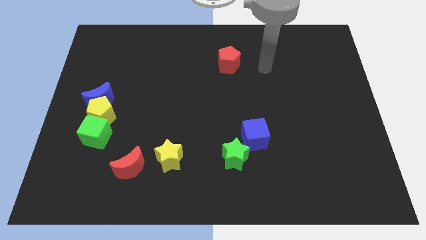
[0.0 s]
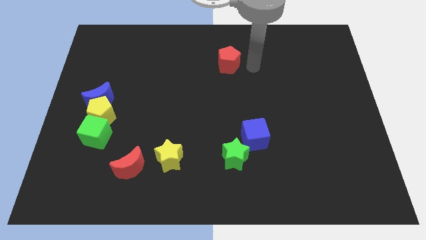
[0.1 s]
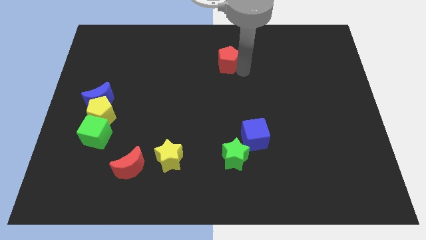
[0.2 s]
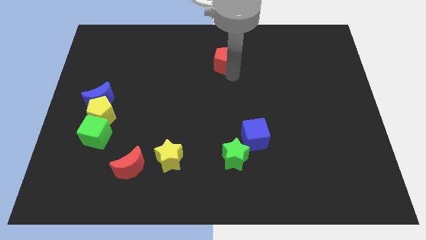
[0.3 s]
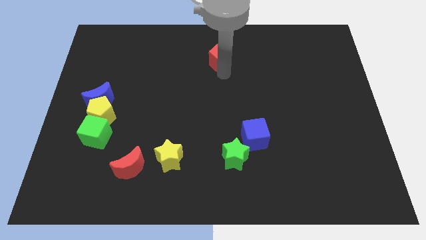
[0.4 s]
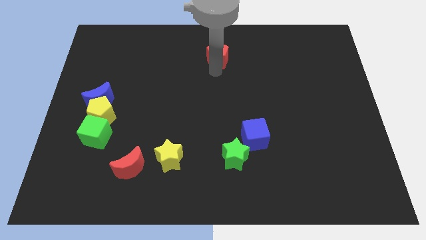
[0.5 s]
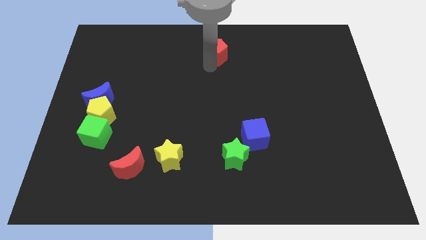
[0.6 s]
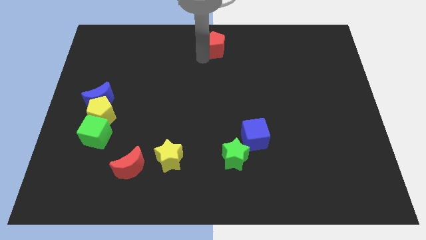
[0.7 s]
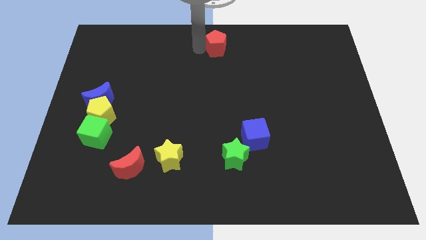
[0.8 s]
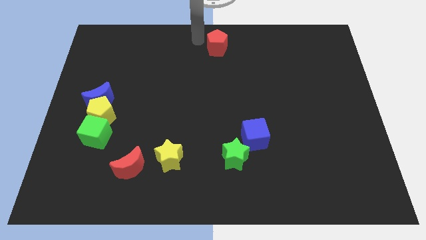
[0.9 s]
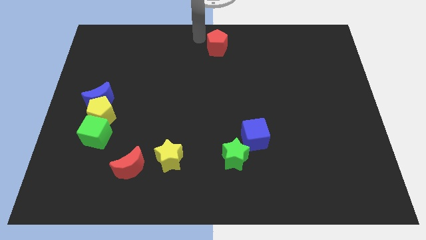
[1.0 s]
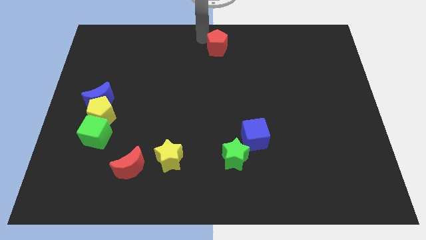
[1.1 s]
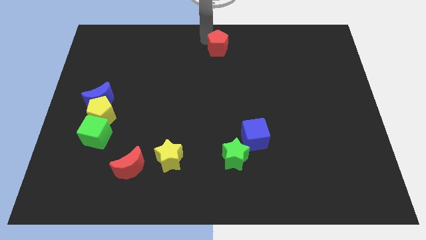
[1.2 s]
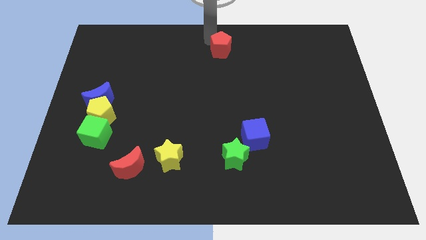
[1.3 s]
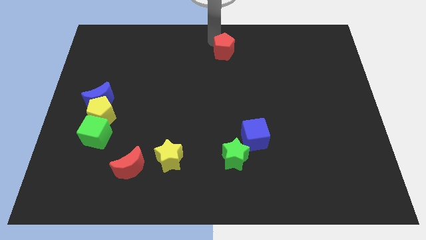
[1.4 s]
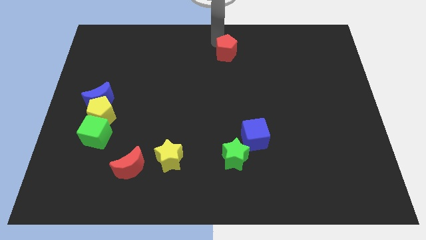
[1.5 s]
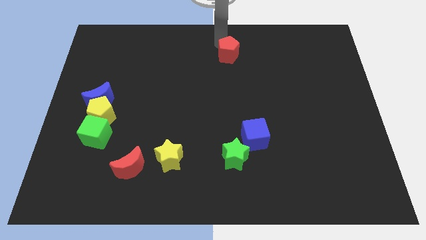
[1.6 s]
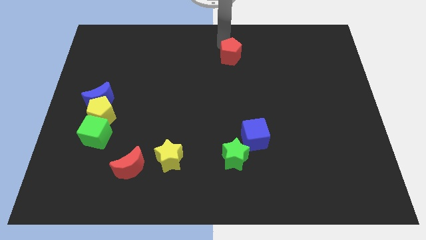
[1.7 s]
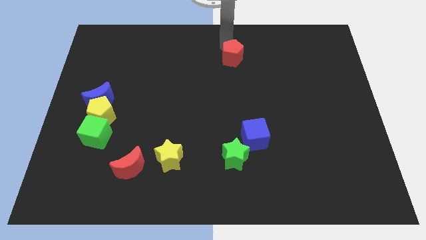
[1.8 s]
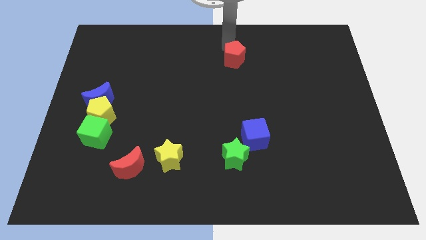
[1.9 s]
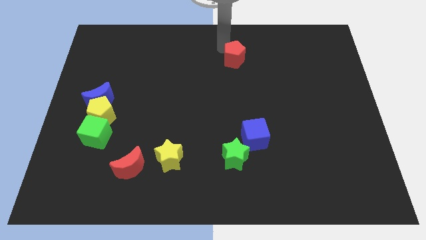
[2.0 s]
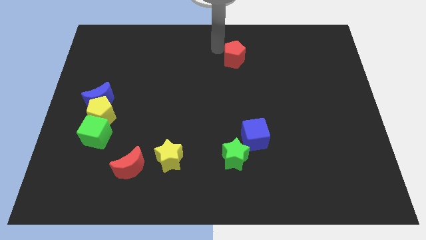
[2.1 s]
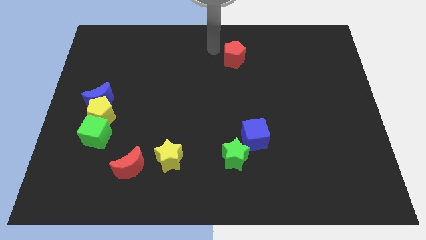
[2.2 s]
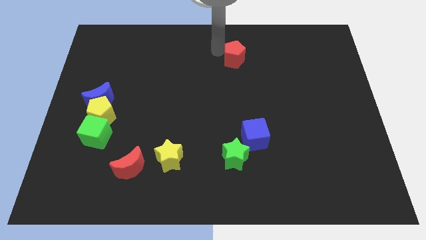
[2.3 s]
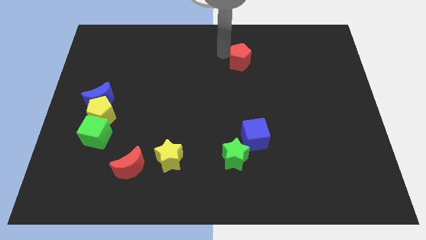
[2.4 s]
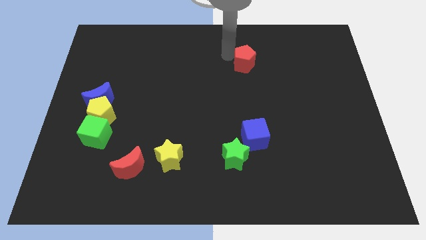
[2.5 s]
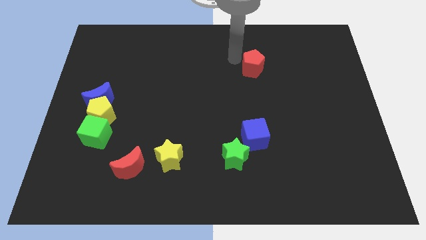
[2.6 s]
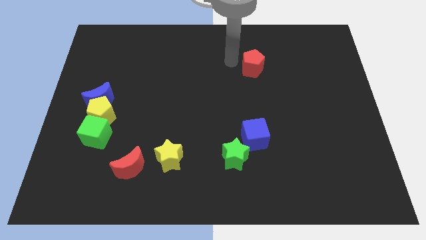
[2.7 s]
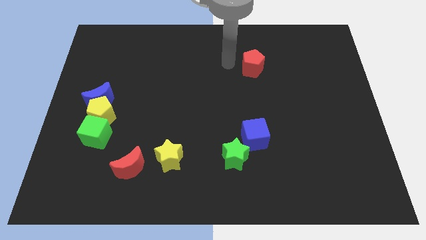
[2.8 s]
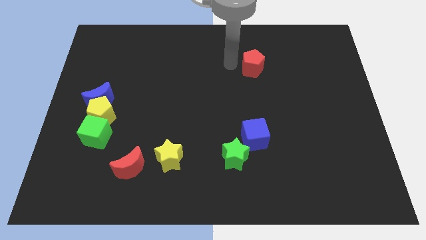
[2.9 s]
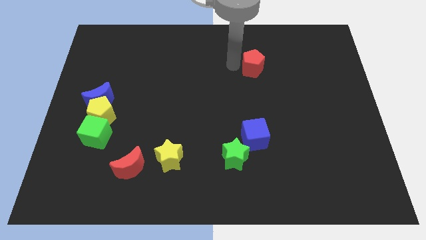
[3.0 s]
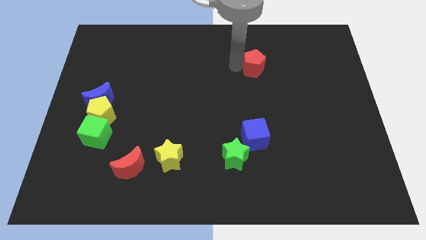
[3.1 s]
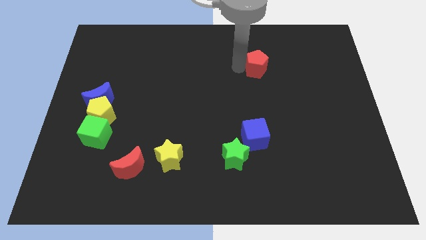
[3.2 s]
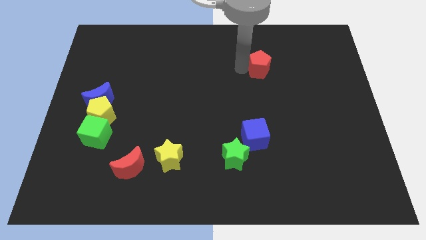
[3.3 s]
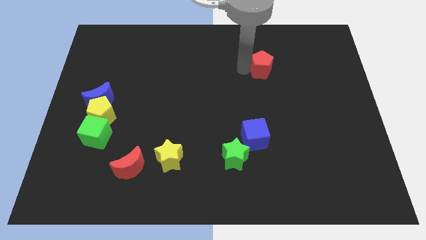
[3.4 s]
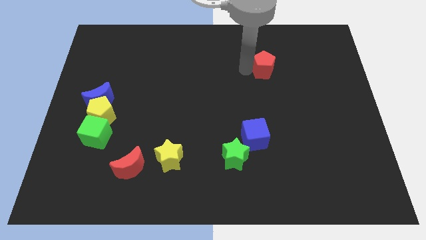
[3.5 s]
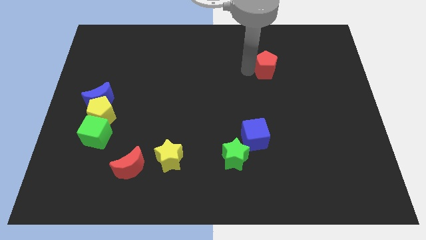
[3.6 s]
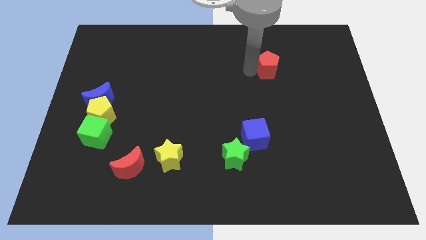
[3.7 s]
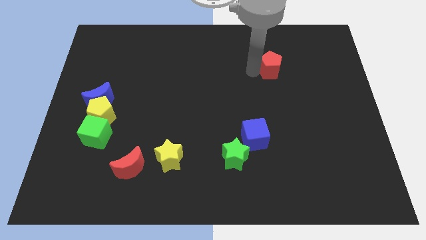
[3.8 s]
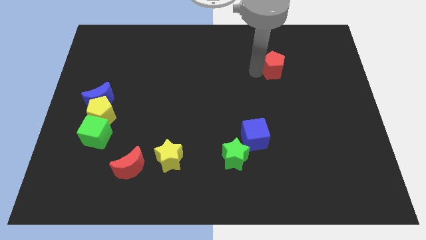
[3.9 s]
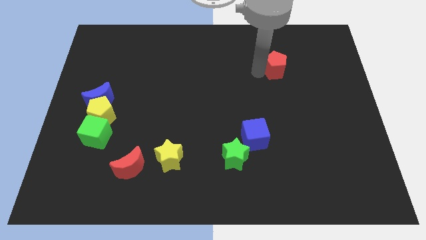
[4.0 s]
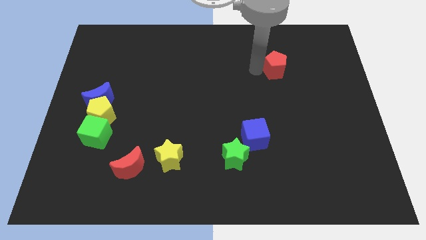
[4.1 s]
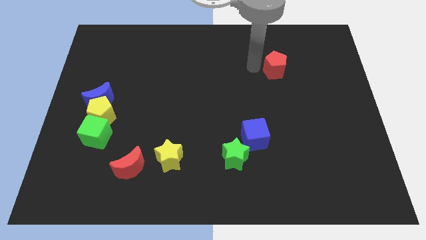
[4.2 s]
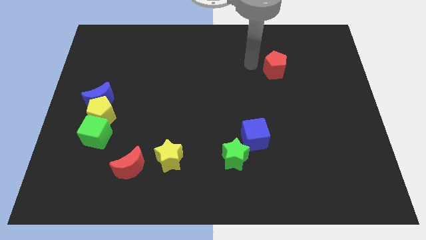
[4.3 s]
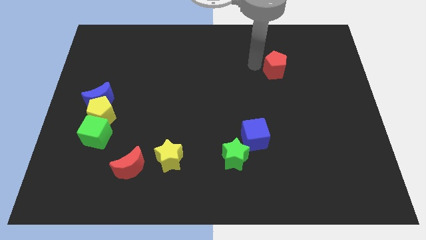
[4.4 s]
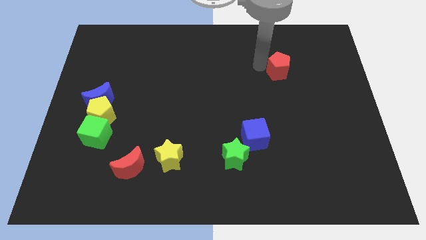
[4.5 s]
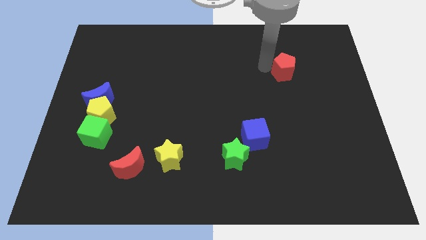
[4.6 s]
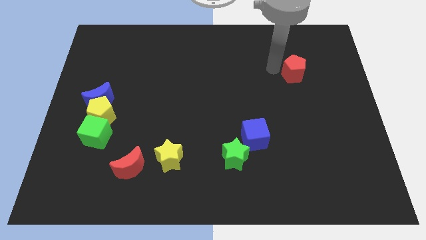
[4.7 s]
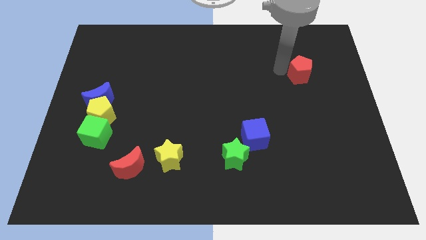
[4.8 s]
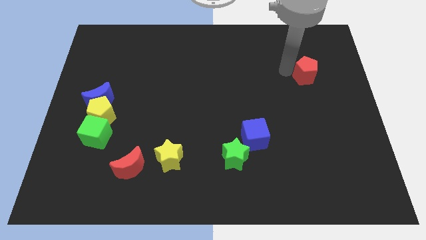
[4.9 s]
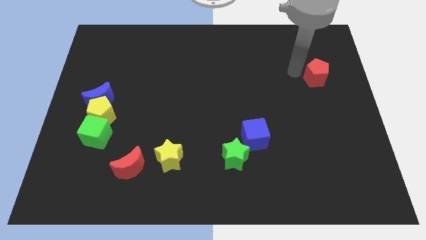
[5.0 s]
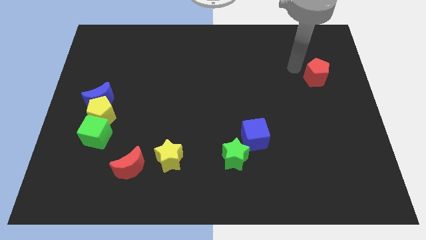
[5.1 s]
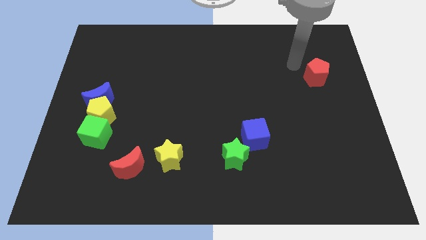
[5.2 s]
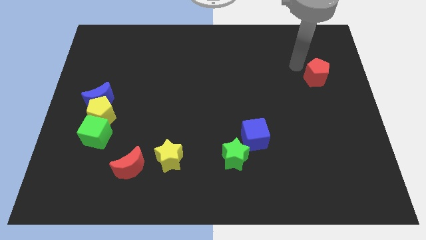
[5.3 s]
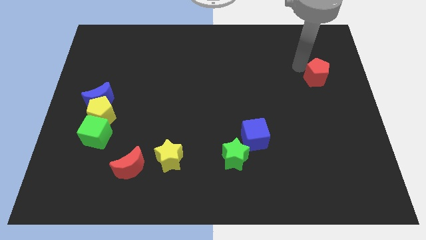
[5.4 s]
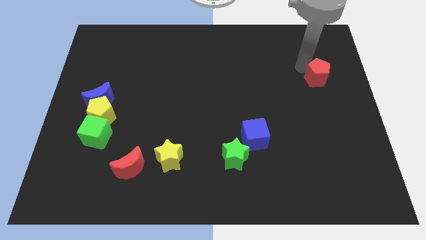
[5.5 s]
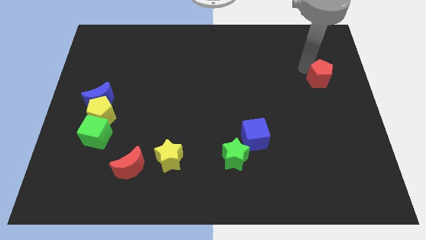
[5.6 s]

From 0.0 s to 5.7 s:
put the red pentagon to the center right

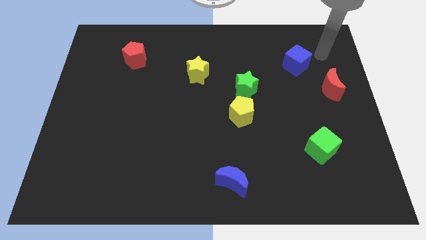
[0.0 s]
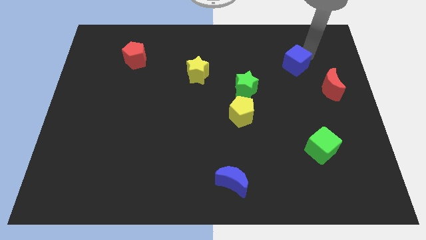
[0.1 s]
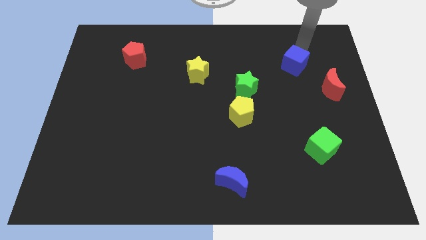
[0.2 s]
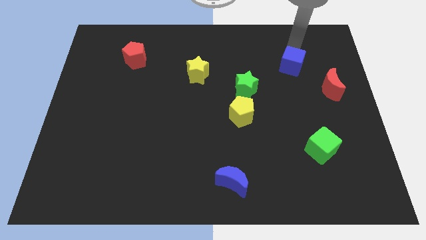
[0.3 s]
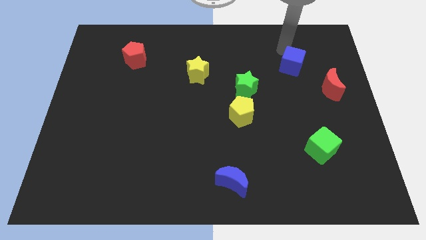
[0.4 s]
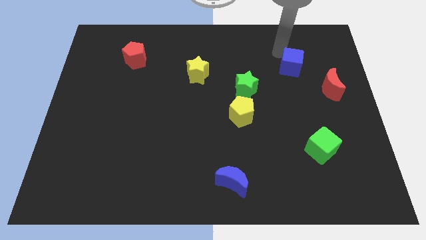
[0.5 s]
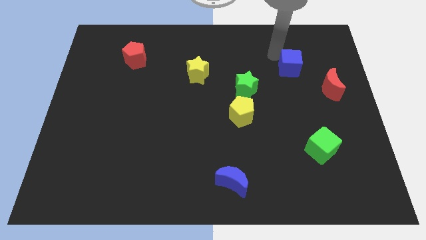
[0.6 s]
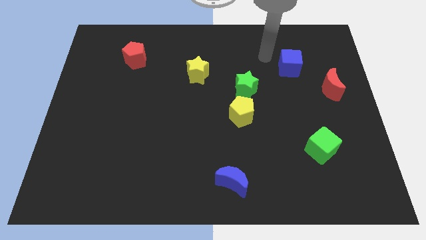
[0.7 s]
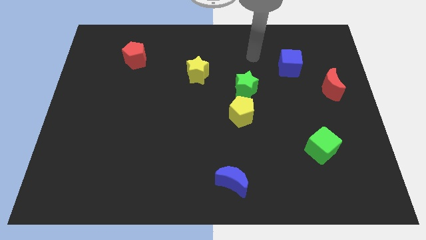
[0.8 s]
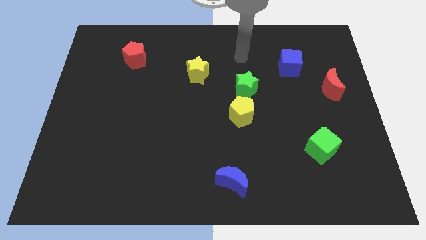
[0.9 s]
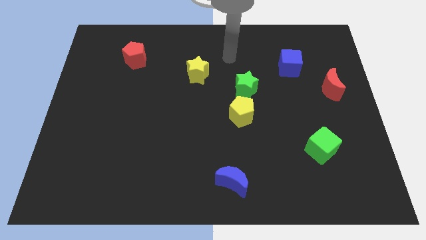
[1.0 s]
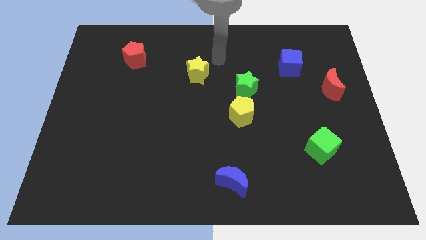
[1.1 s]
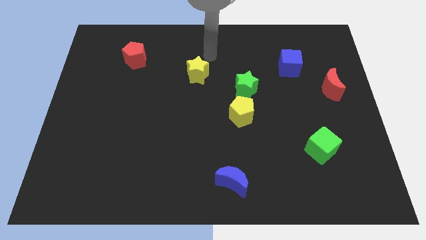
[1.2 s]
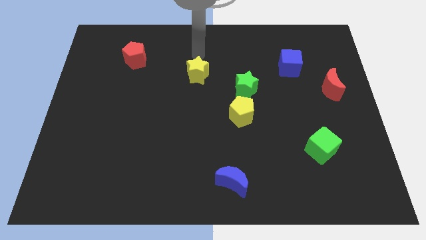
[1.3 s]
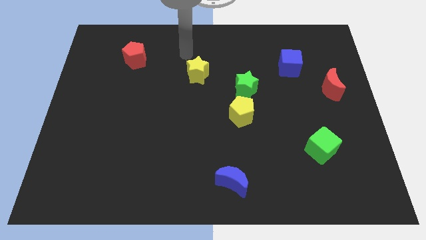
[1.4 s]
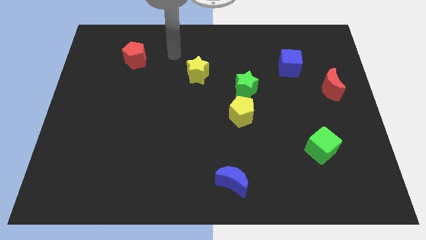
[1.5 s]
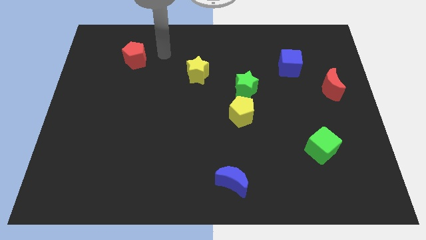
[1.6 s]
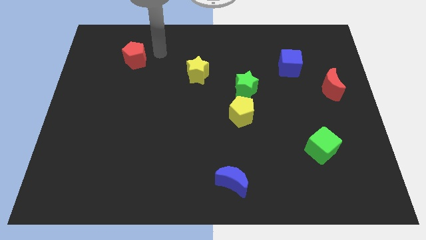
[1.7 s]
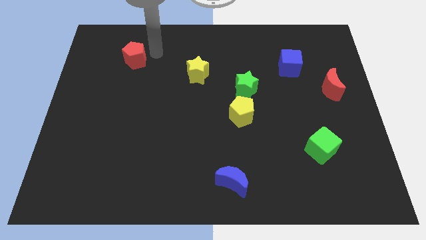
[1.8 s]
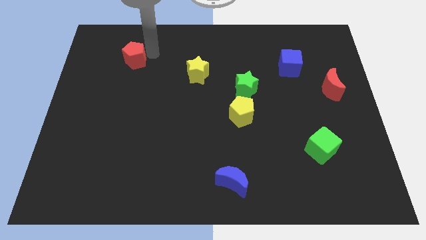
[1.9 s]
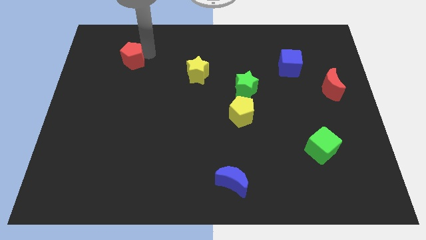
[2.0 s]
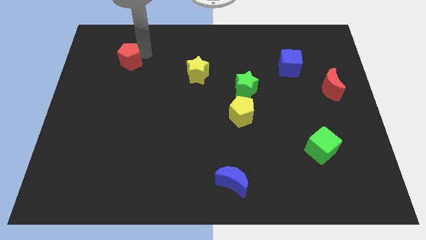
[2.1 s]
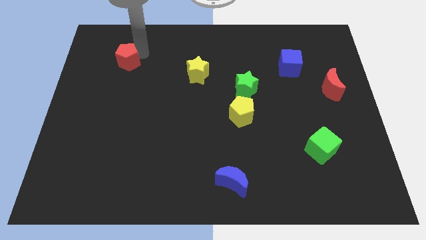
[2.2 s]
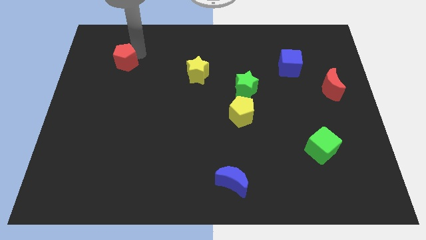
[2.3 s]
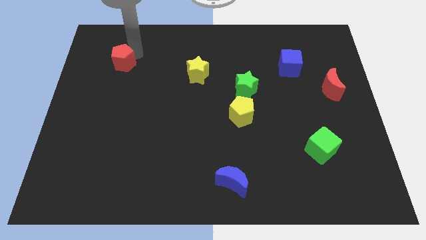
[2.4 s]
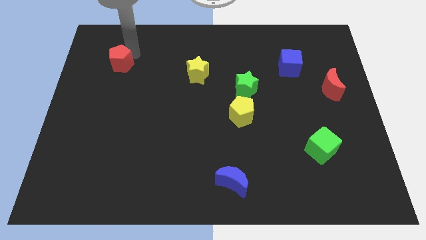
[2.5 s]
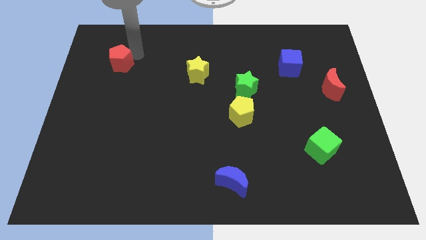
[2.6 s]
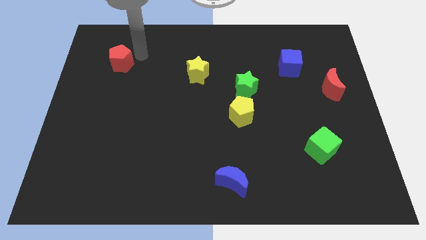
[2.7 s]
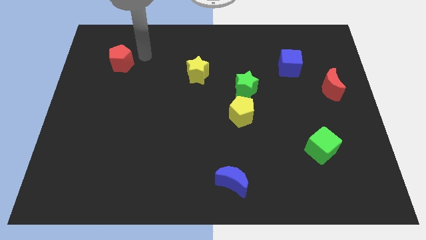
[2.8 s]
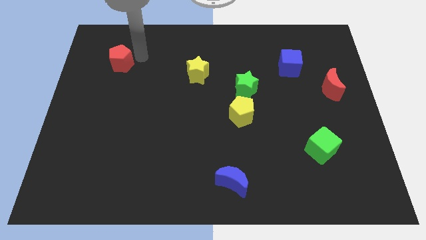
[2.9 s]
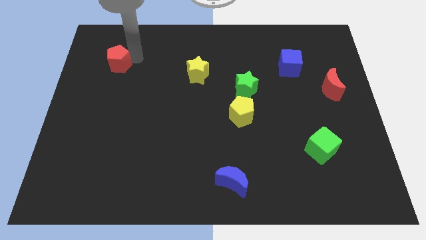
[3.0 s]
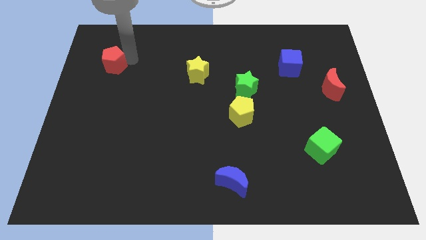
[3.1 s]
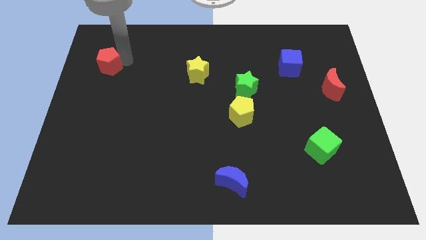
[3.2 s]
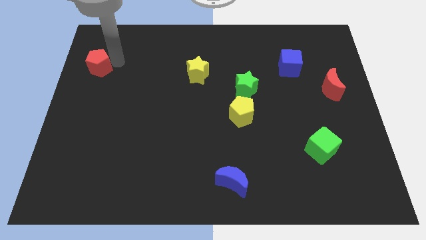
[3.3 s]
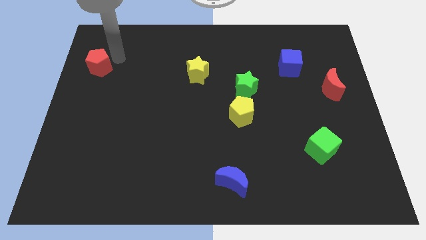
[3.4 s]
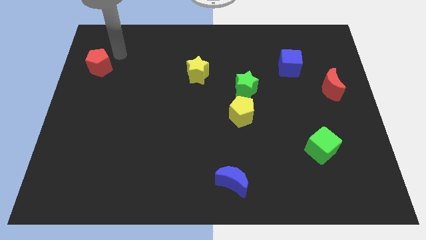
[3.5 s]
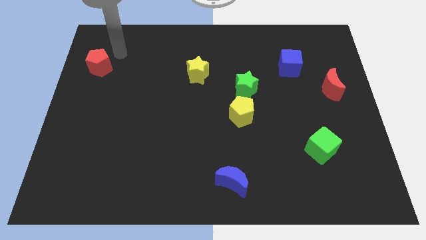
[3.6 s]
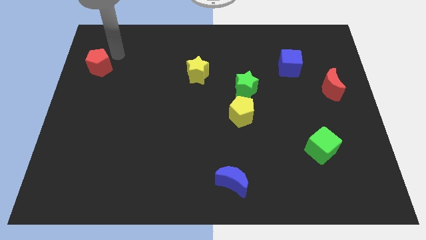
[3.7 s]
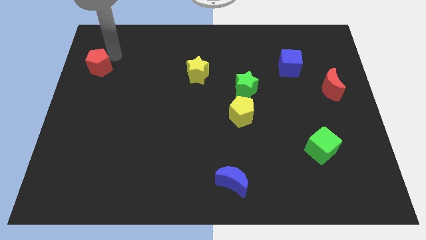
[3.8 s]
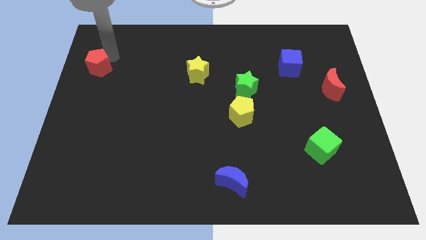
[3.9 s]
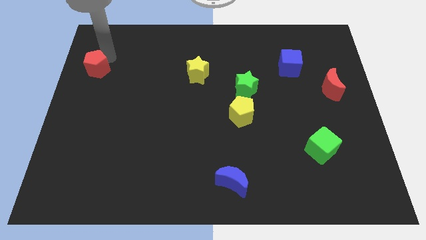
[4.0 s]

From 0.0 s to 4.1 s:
push the red pentagon to the left side of the board
